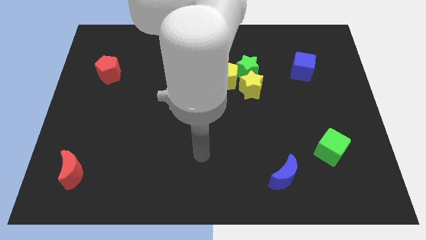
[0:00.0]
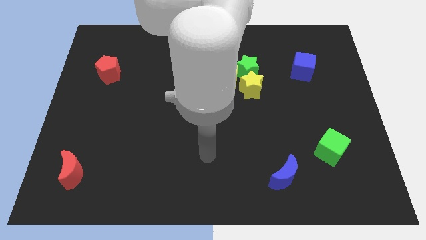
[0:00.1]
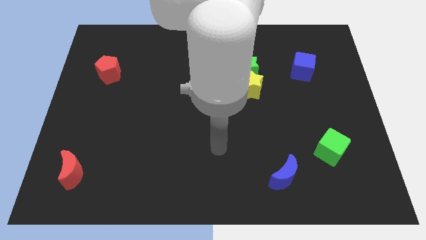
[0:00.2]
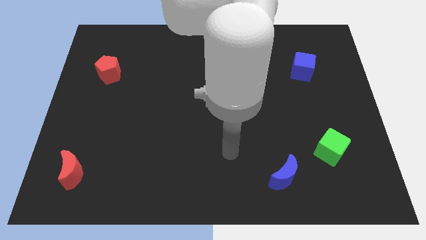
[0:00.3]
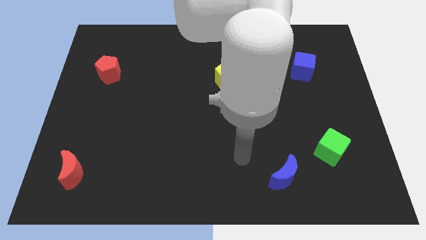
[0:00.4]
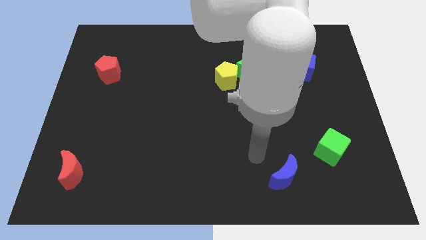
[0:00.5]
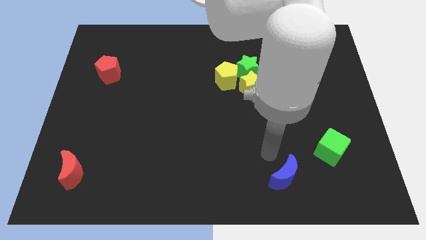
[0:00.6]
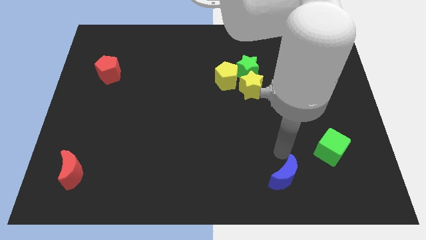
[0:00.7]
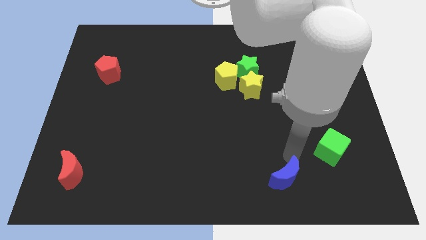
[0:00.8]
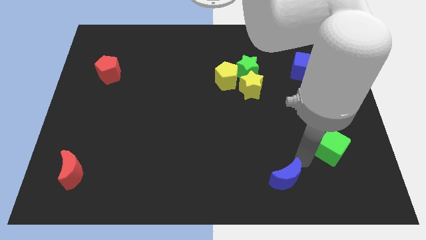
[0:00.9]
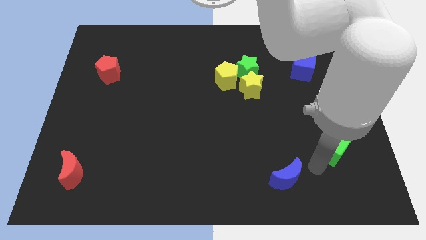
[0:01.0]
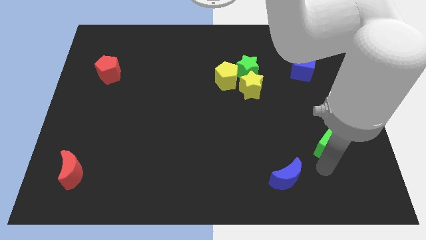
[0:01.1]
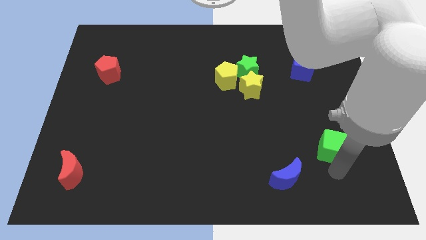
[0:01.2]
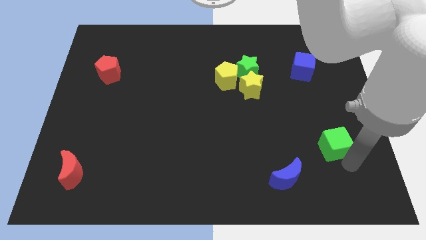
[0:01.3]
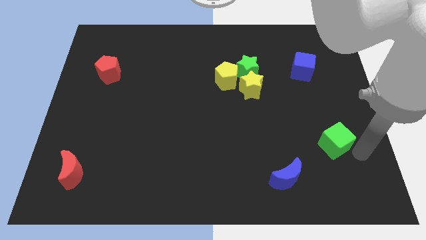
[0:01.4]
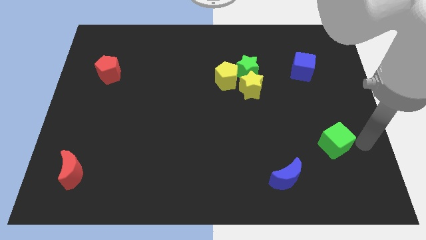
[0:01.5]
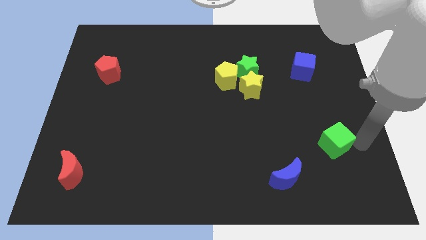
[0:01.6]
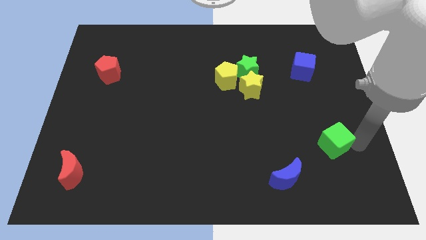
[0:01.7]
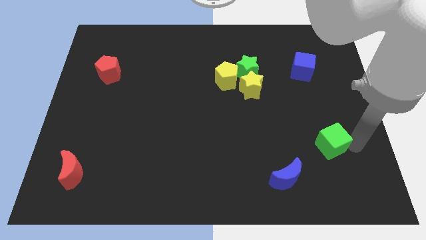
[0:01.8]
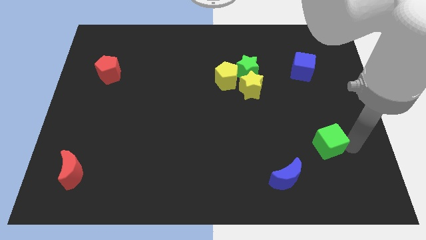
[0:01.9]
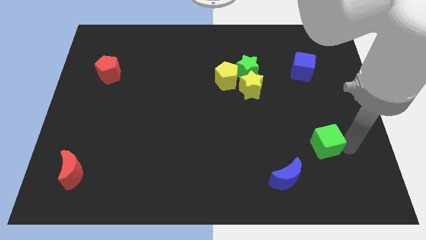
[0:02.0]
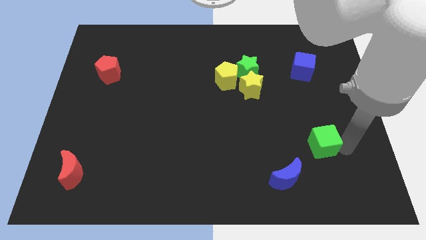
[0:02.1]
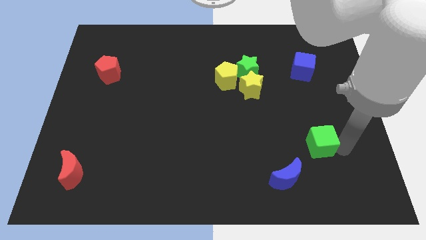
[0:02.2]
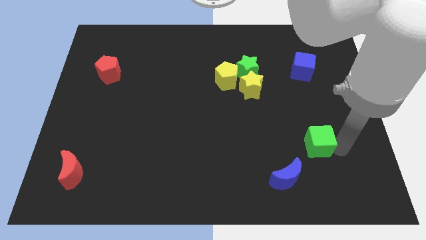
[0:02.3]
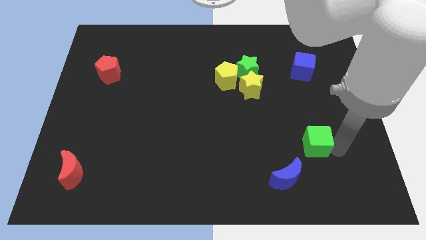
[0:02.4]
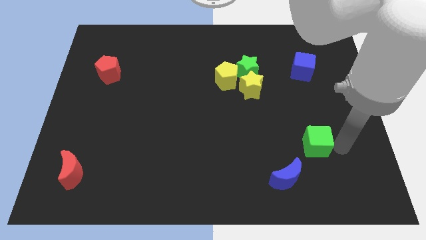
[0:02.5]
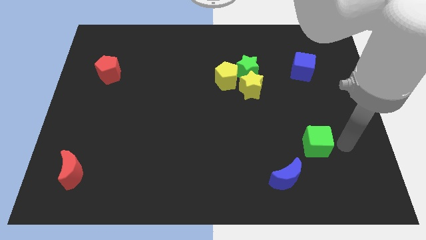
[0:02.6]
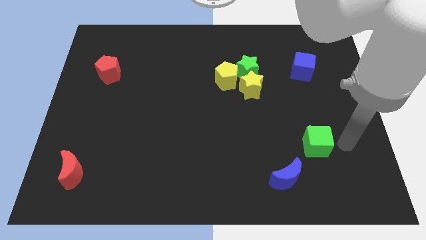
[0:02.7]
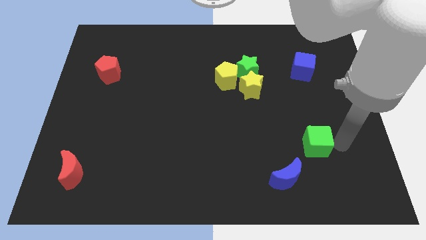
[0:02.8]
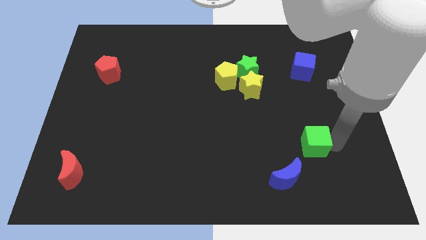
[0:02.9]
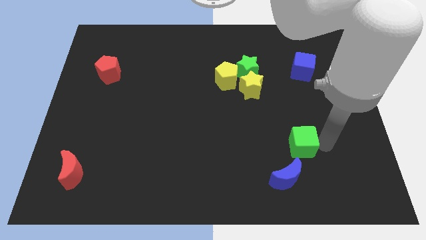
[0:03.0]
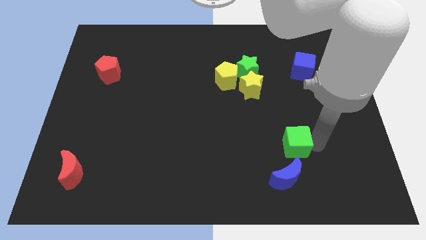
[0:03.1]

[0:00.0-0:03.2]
move the green cube somewhat left

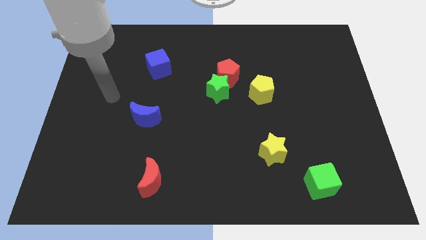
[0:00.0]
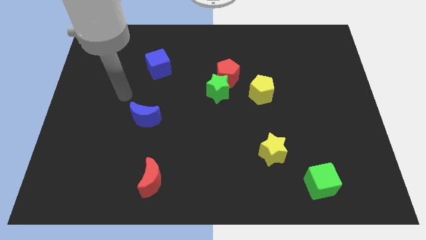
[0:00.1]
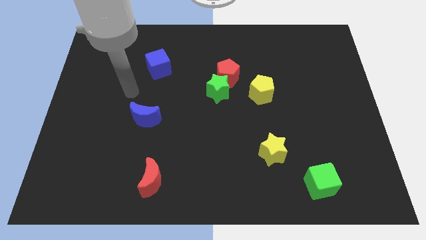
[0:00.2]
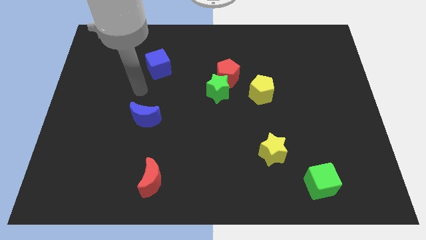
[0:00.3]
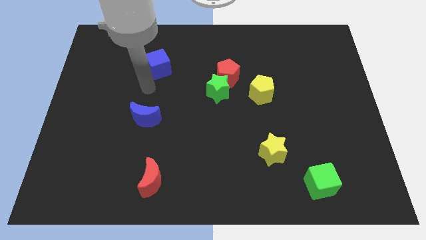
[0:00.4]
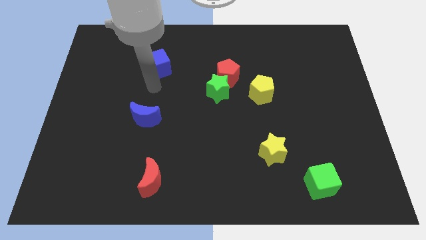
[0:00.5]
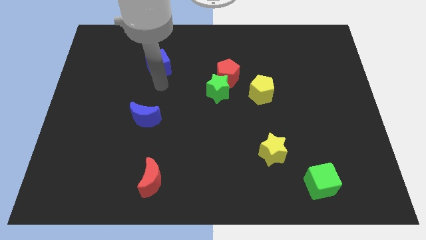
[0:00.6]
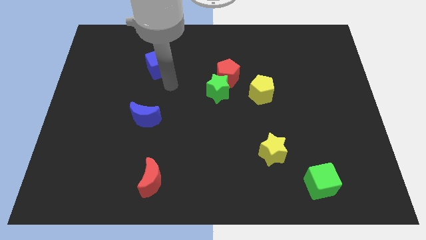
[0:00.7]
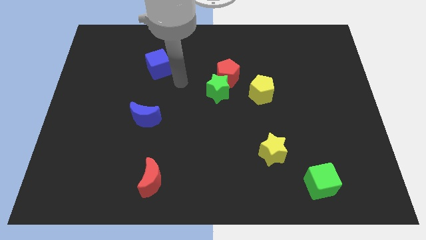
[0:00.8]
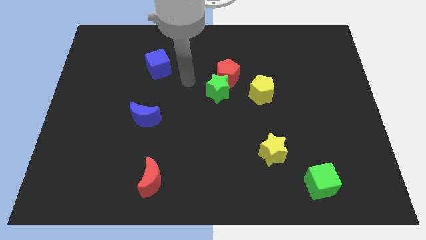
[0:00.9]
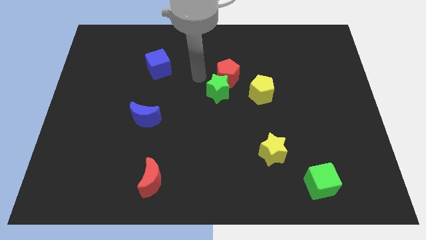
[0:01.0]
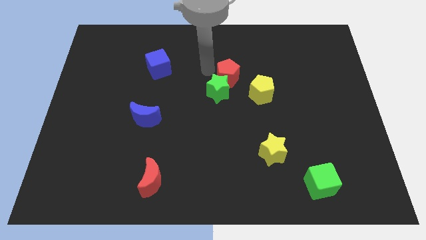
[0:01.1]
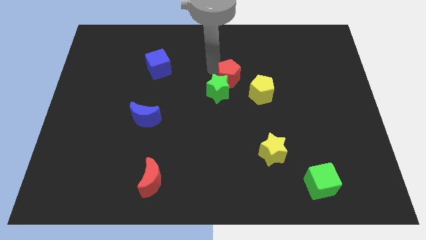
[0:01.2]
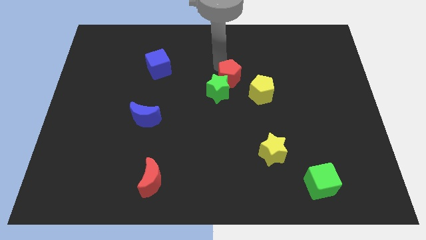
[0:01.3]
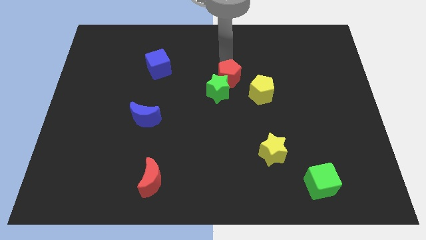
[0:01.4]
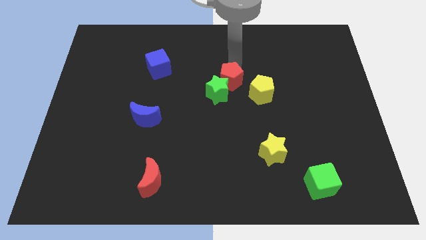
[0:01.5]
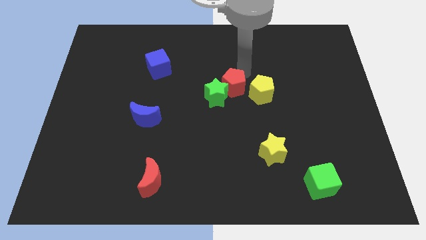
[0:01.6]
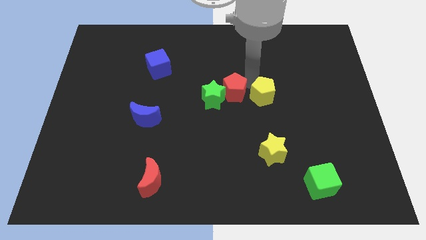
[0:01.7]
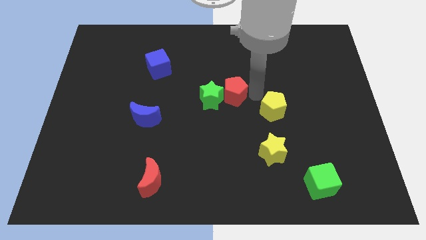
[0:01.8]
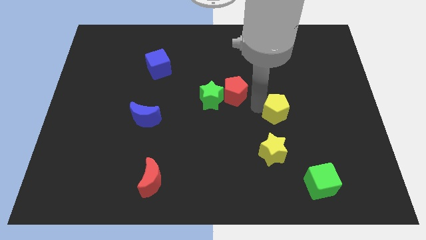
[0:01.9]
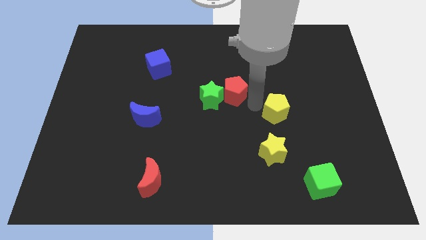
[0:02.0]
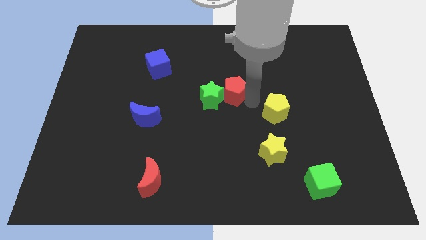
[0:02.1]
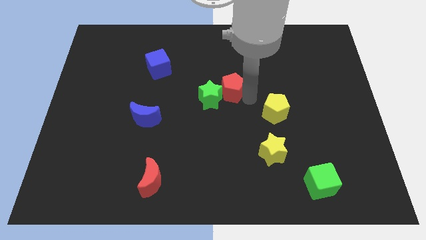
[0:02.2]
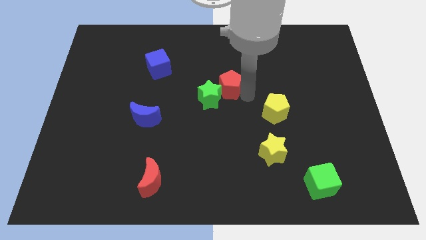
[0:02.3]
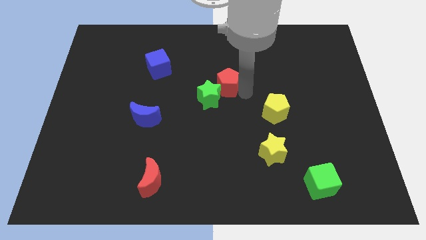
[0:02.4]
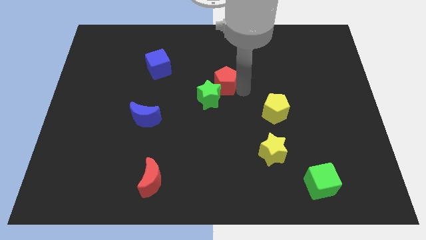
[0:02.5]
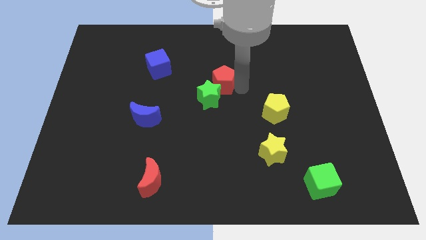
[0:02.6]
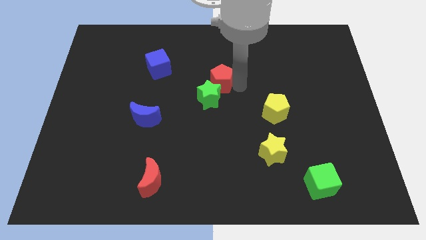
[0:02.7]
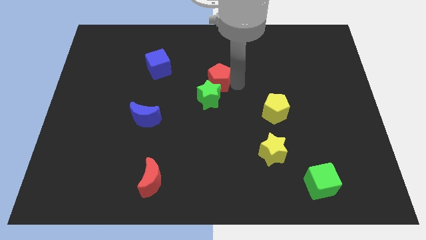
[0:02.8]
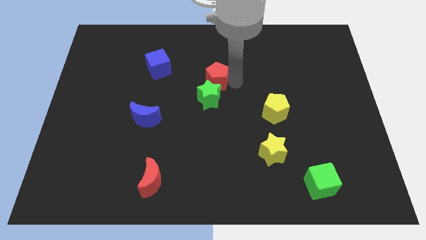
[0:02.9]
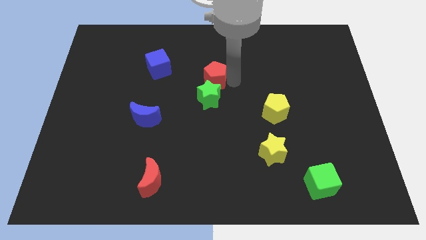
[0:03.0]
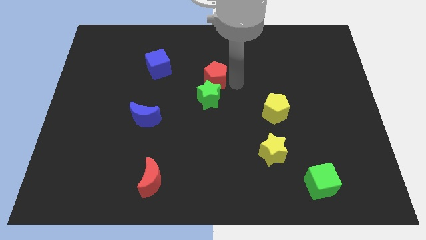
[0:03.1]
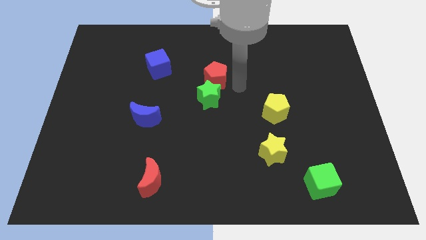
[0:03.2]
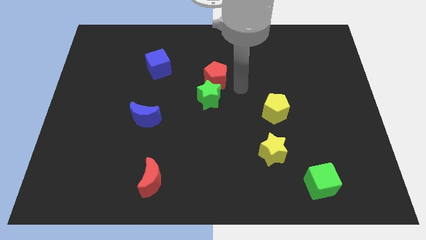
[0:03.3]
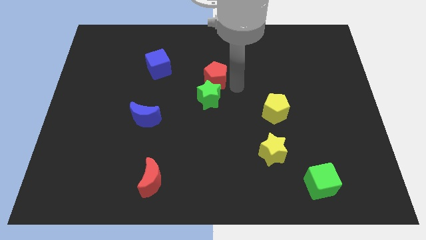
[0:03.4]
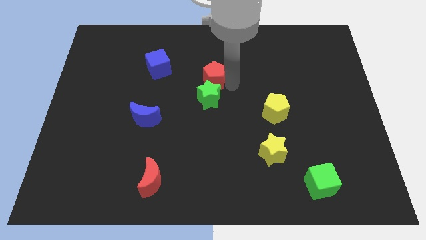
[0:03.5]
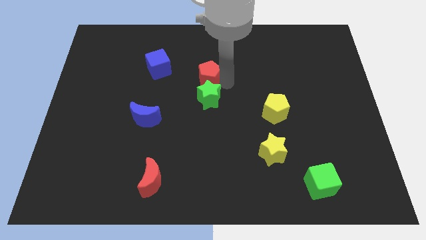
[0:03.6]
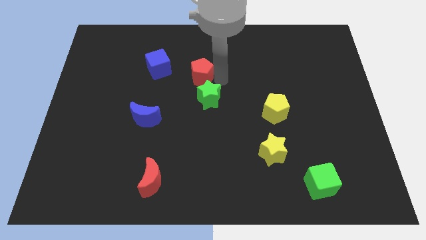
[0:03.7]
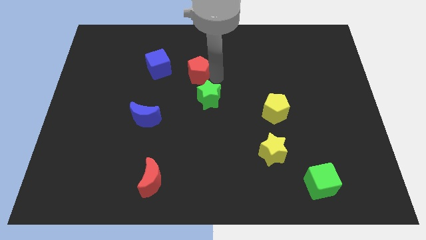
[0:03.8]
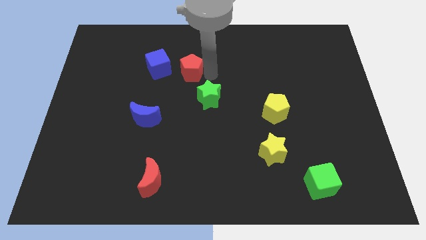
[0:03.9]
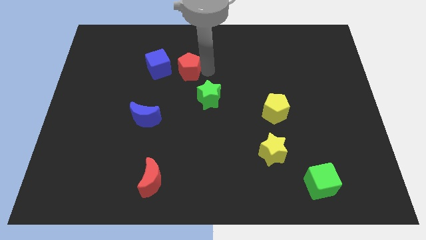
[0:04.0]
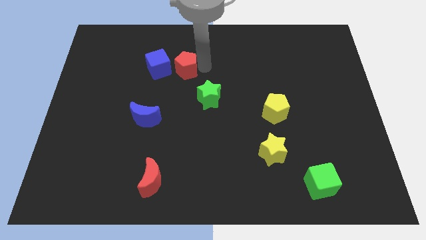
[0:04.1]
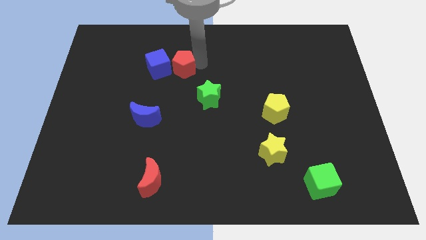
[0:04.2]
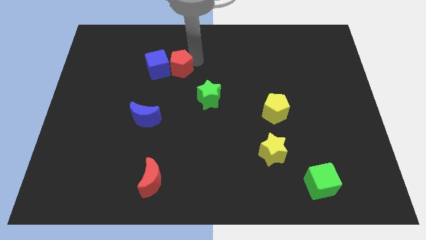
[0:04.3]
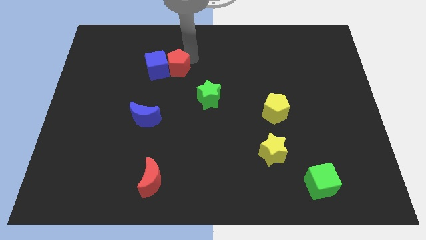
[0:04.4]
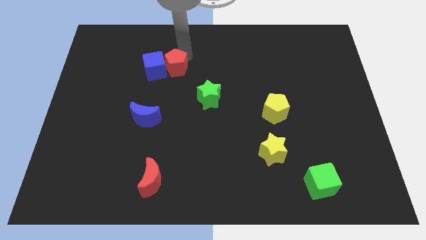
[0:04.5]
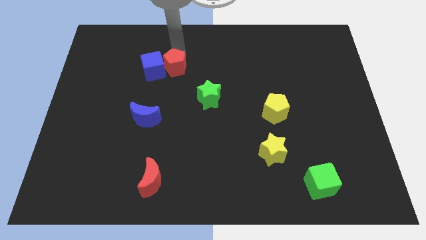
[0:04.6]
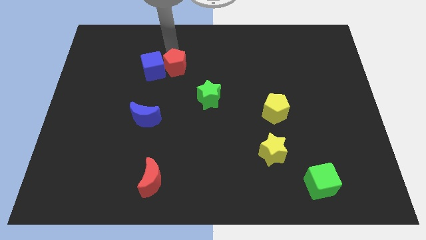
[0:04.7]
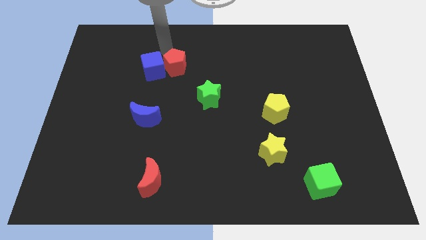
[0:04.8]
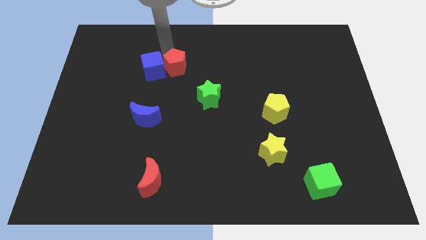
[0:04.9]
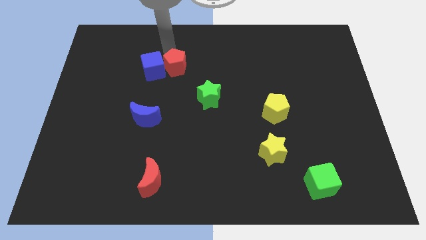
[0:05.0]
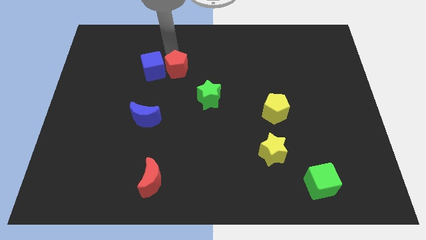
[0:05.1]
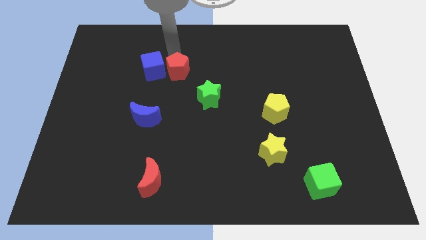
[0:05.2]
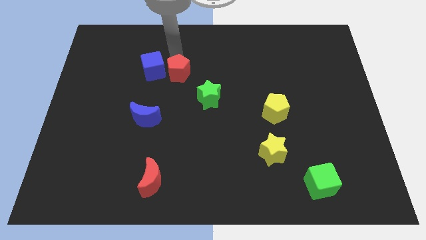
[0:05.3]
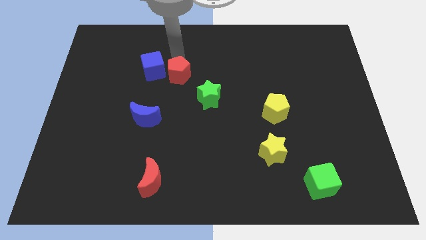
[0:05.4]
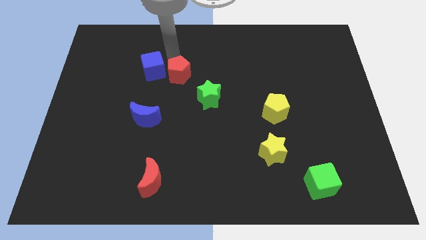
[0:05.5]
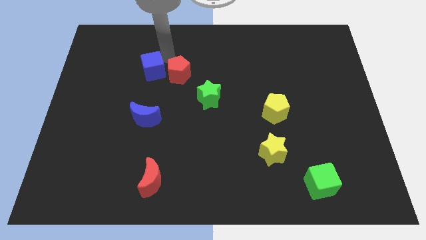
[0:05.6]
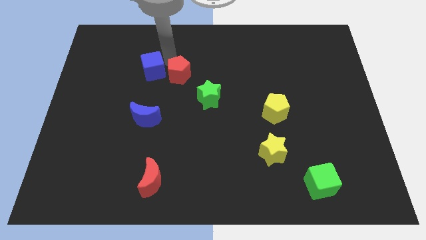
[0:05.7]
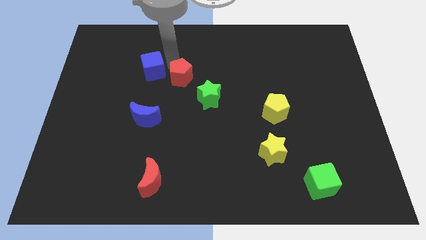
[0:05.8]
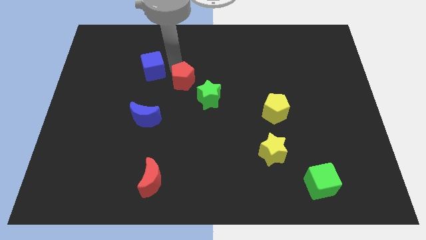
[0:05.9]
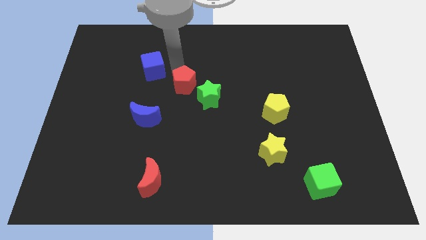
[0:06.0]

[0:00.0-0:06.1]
move the red pentagon downwards and left diagonally slightly
